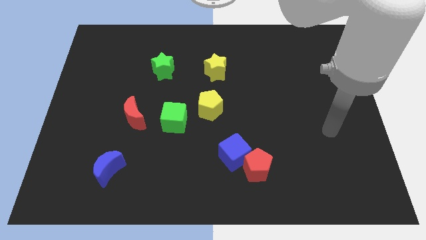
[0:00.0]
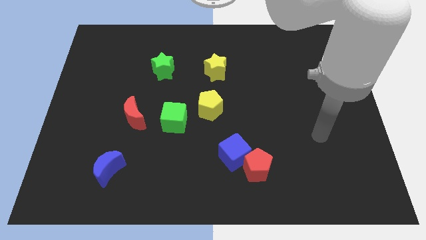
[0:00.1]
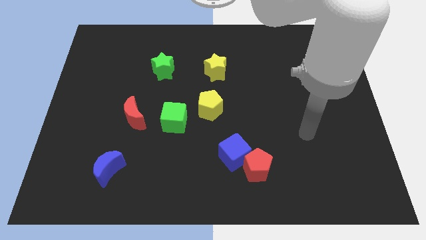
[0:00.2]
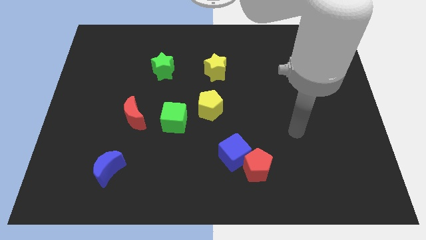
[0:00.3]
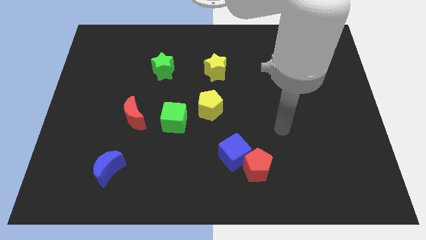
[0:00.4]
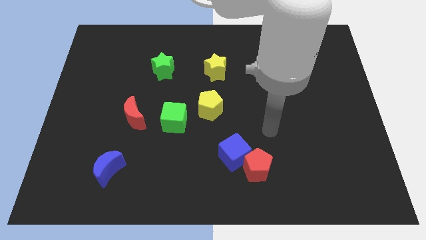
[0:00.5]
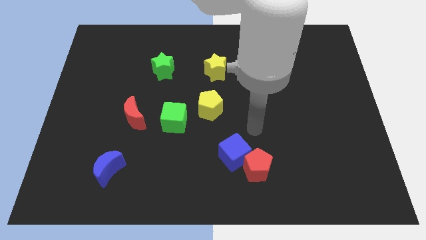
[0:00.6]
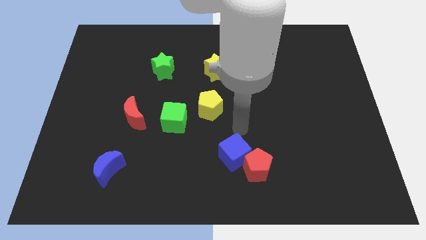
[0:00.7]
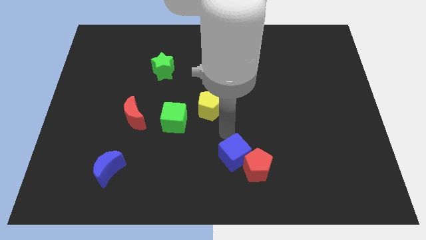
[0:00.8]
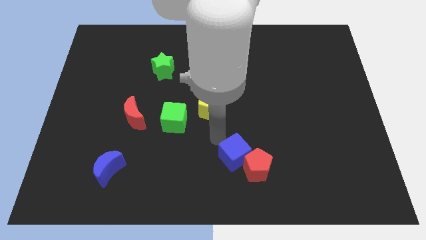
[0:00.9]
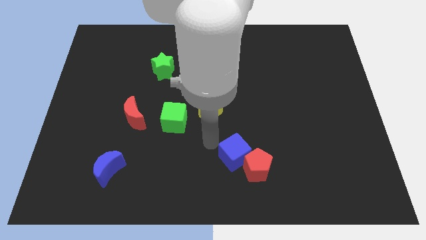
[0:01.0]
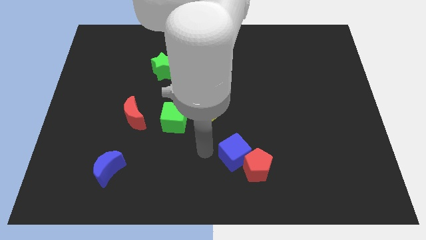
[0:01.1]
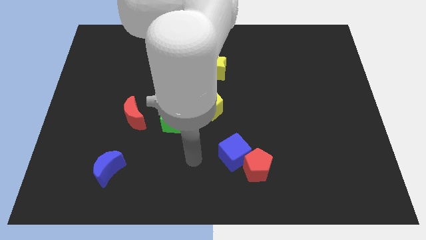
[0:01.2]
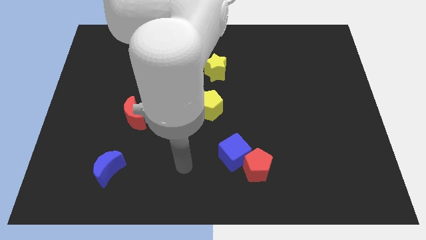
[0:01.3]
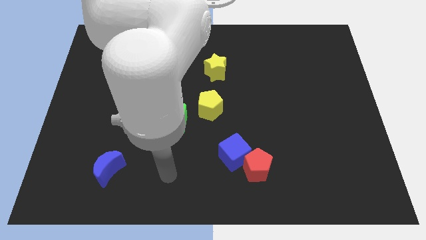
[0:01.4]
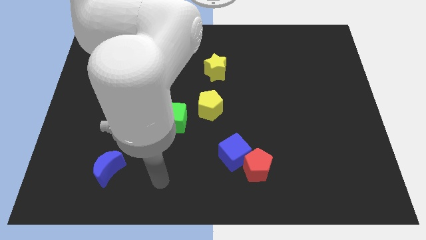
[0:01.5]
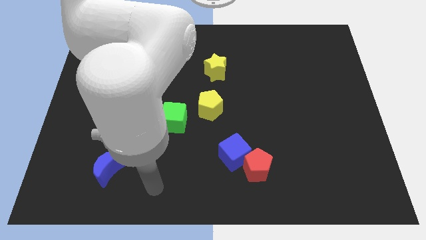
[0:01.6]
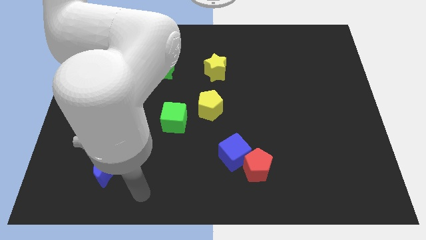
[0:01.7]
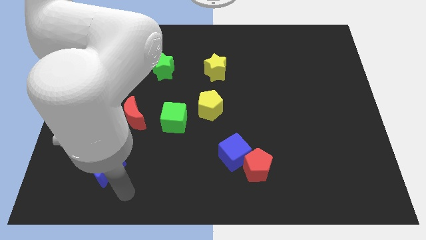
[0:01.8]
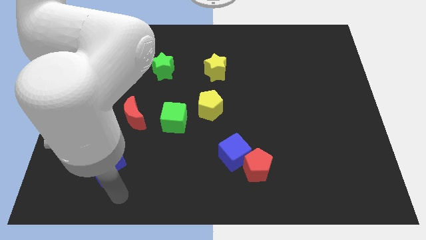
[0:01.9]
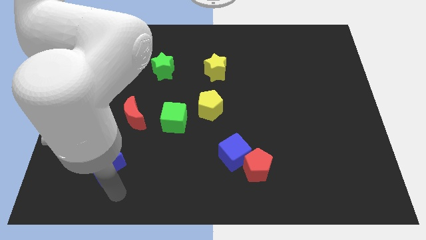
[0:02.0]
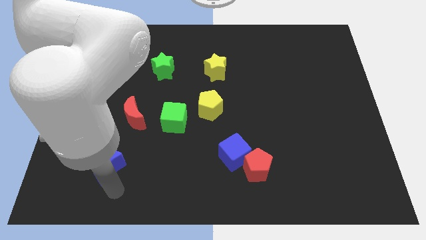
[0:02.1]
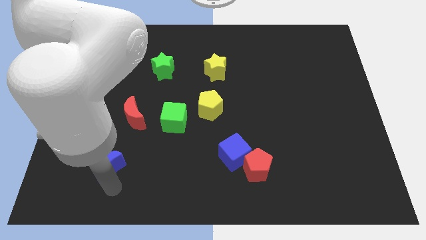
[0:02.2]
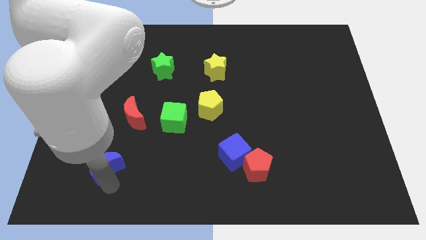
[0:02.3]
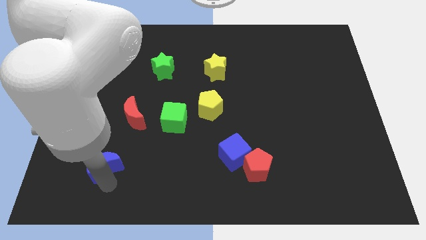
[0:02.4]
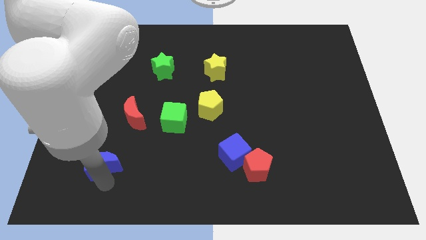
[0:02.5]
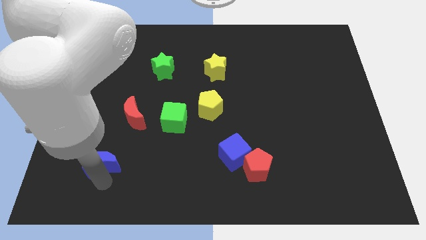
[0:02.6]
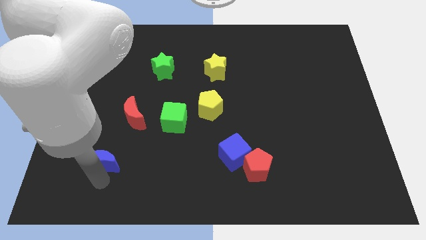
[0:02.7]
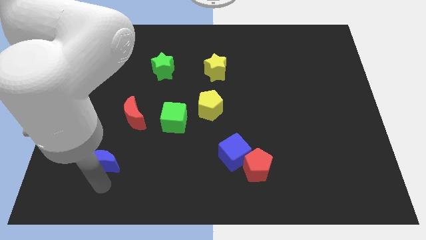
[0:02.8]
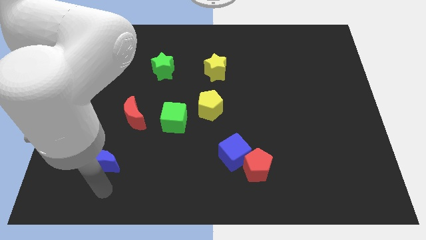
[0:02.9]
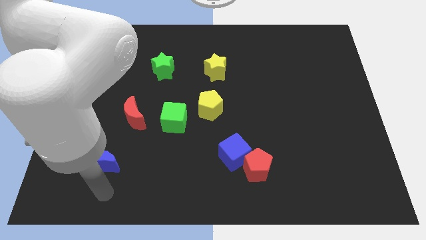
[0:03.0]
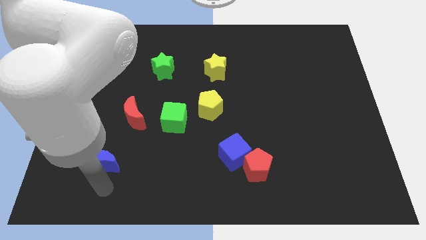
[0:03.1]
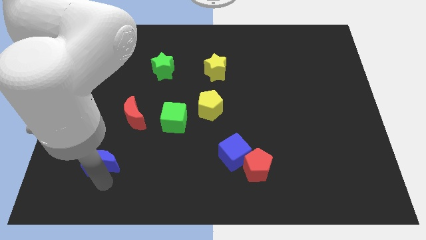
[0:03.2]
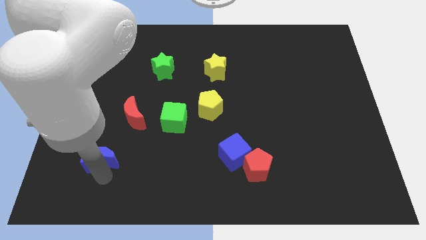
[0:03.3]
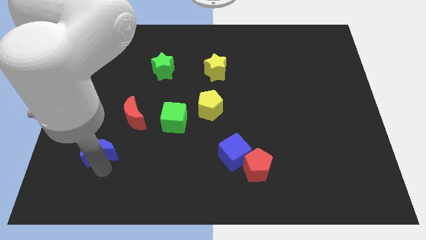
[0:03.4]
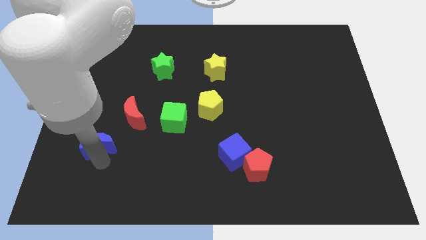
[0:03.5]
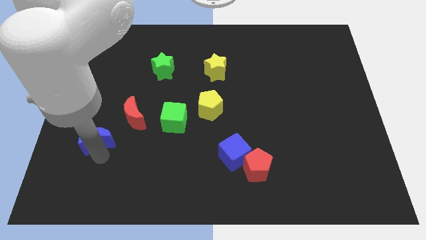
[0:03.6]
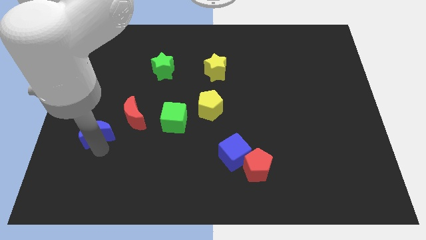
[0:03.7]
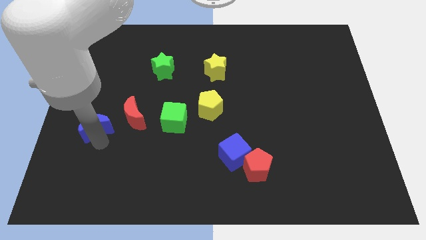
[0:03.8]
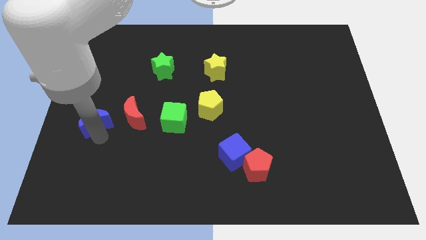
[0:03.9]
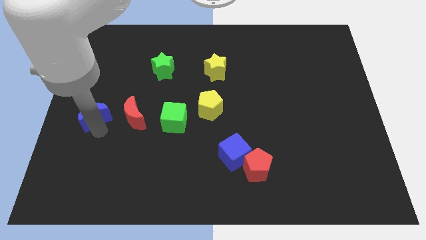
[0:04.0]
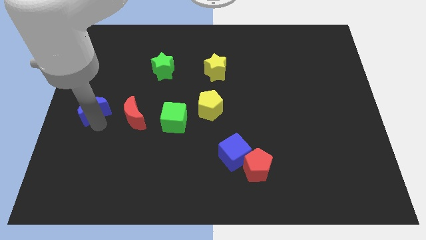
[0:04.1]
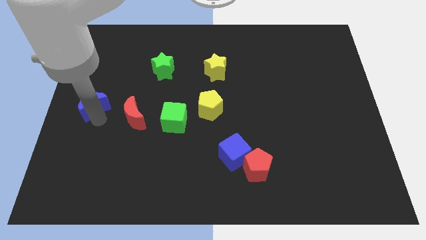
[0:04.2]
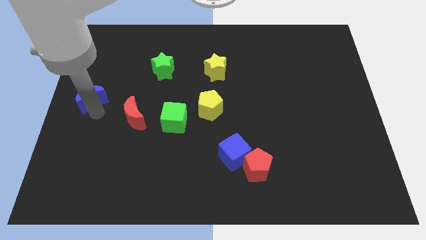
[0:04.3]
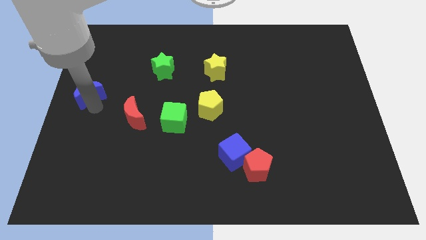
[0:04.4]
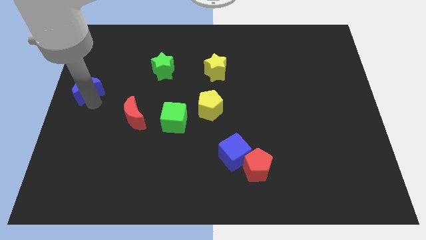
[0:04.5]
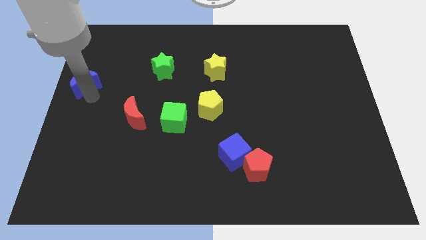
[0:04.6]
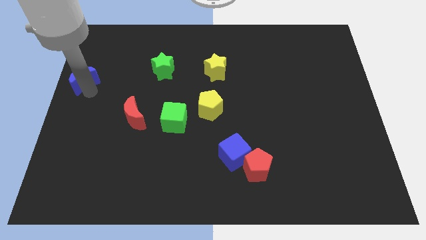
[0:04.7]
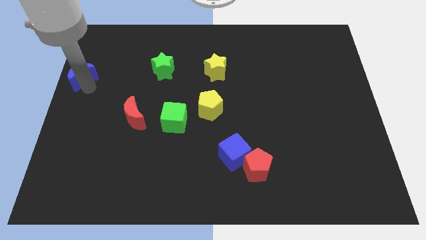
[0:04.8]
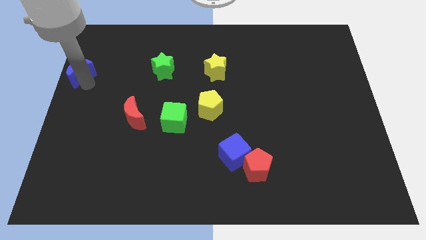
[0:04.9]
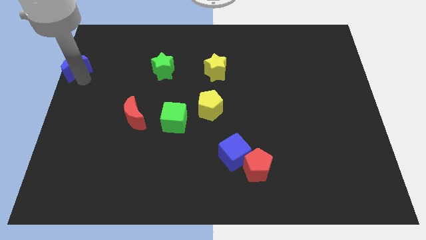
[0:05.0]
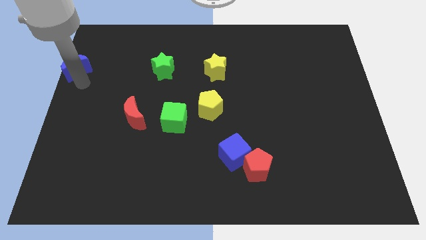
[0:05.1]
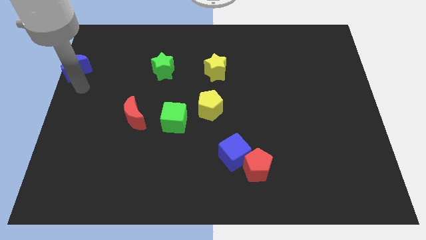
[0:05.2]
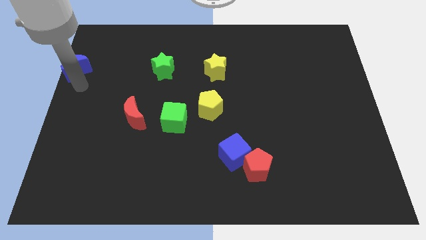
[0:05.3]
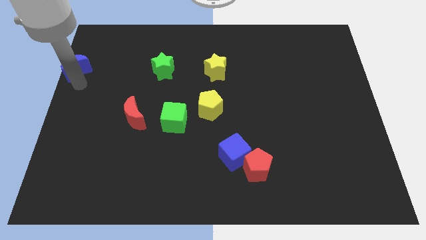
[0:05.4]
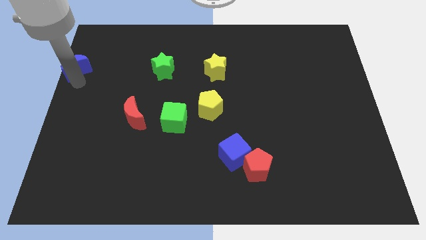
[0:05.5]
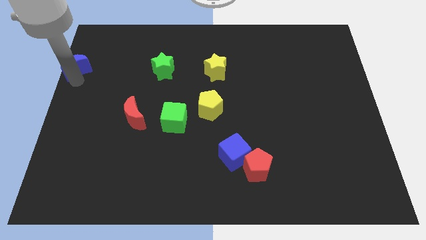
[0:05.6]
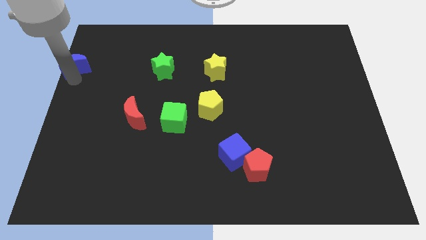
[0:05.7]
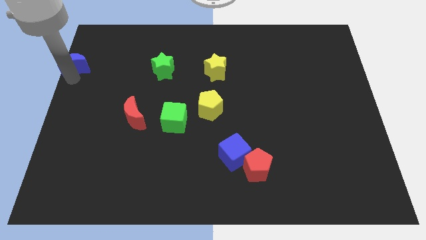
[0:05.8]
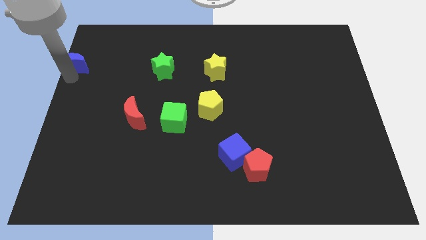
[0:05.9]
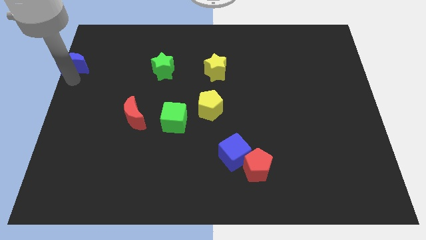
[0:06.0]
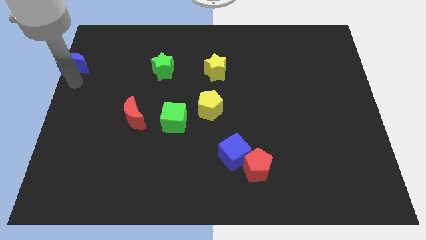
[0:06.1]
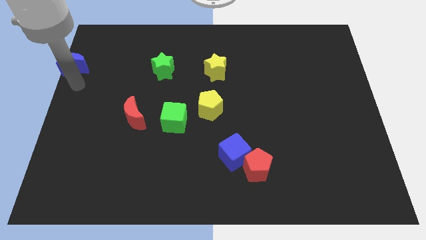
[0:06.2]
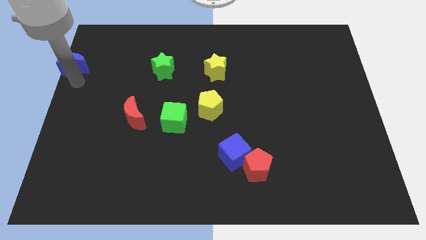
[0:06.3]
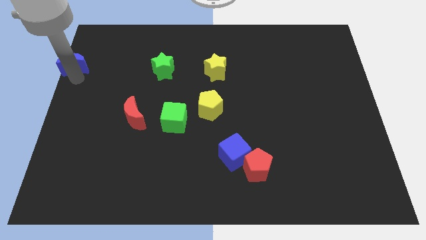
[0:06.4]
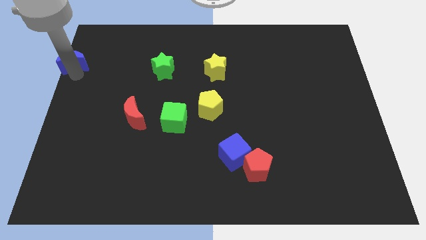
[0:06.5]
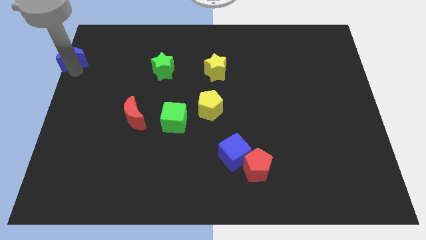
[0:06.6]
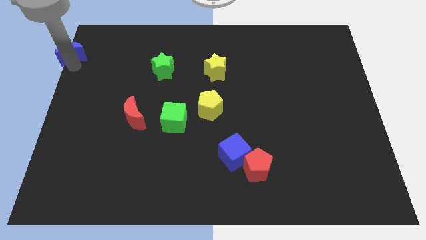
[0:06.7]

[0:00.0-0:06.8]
put the blue moon to the top left of the board
